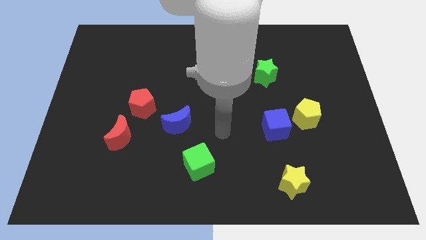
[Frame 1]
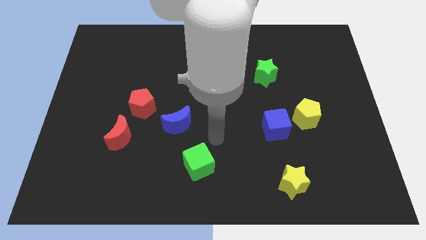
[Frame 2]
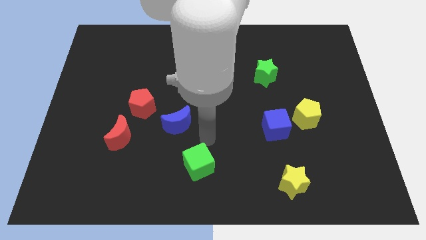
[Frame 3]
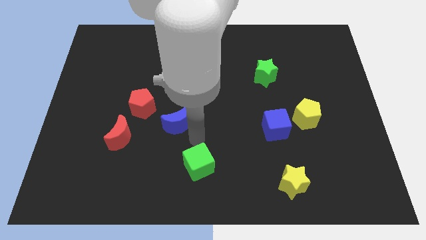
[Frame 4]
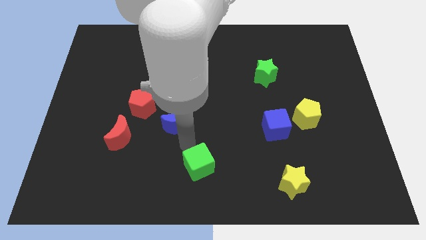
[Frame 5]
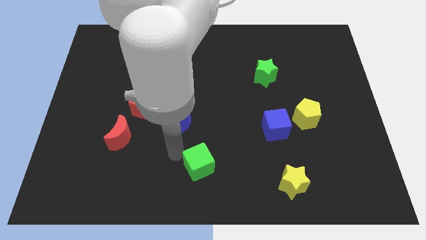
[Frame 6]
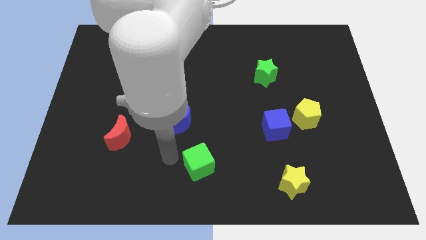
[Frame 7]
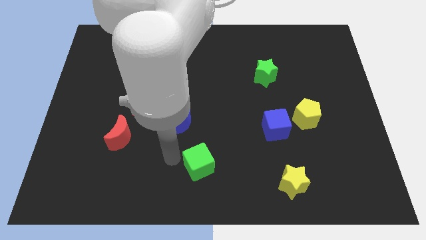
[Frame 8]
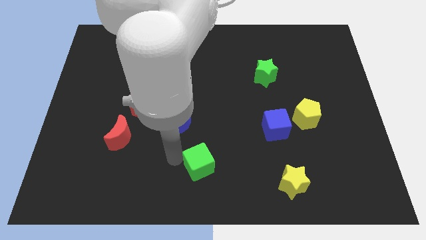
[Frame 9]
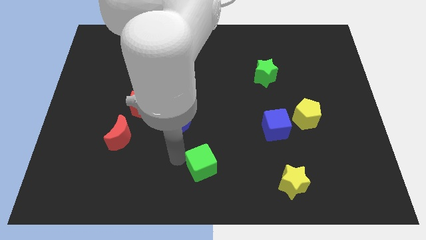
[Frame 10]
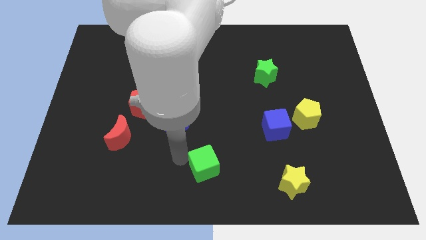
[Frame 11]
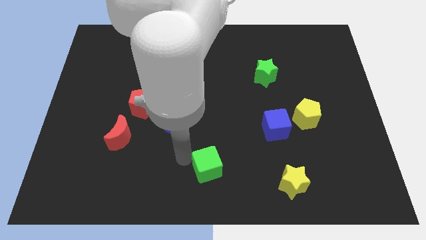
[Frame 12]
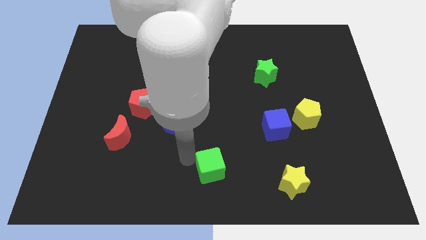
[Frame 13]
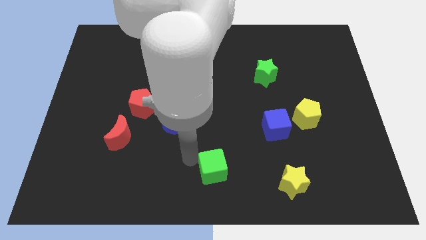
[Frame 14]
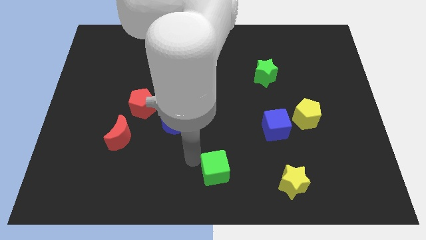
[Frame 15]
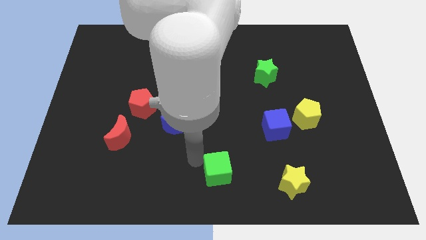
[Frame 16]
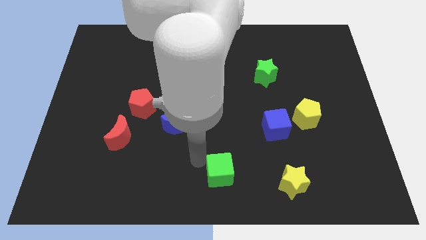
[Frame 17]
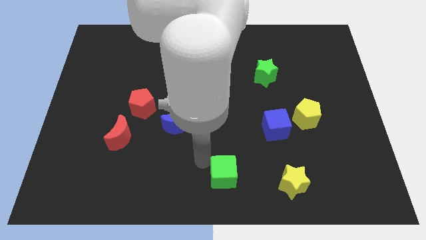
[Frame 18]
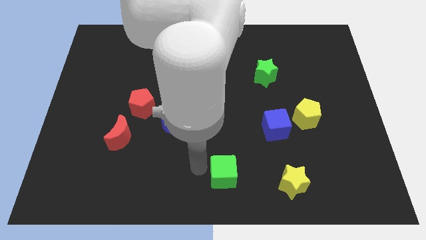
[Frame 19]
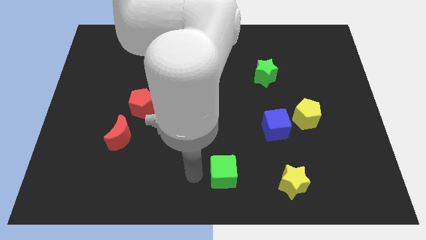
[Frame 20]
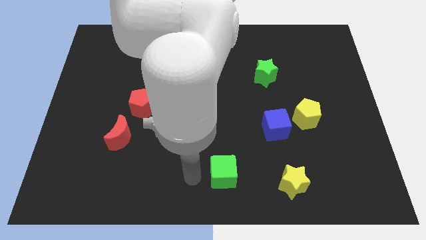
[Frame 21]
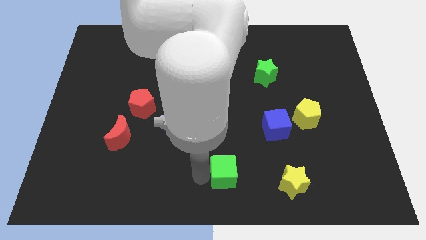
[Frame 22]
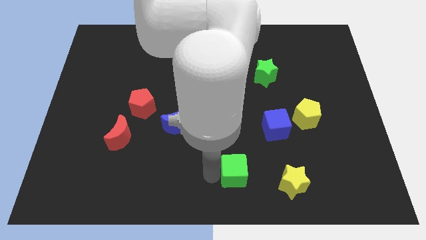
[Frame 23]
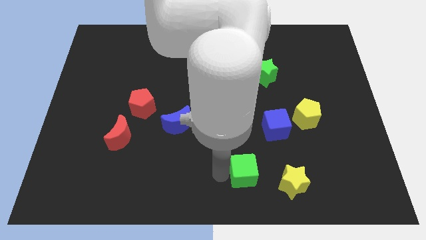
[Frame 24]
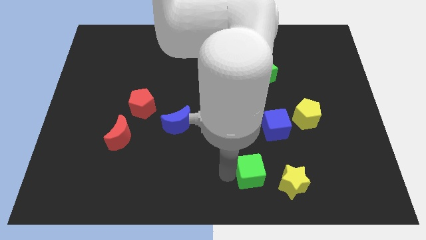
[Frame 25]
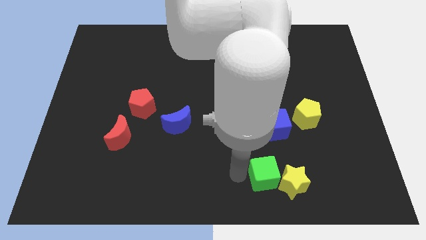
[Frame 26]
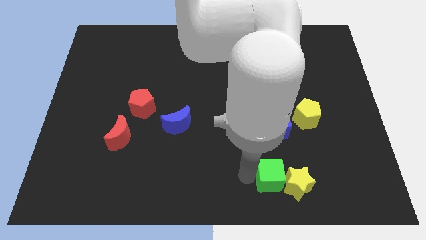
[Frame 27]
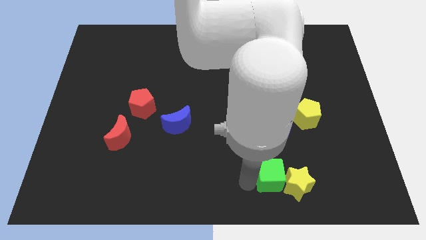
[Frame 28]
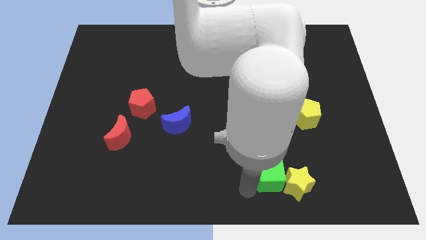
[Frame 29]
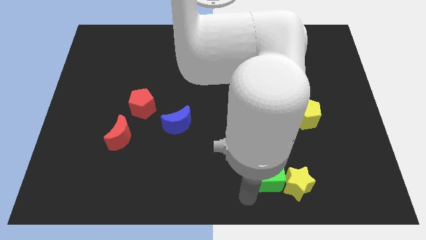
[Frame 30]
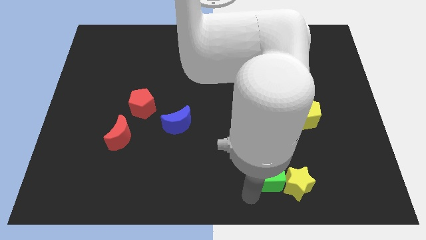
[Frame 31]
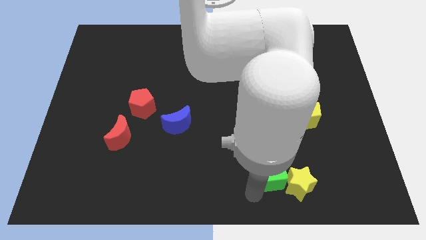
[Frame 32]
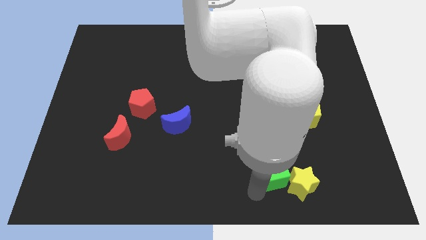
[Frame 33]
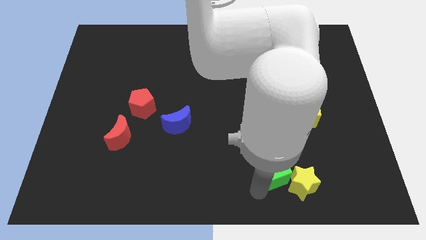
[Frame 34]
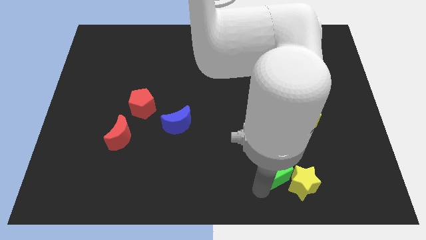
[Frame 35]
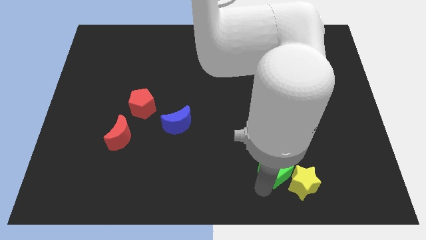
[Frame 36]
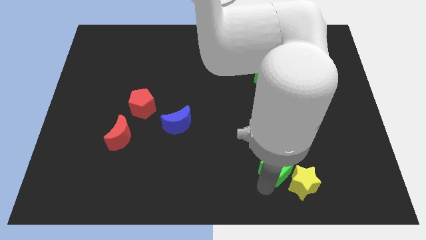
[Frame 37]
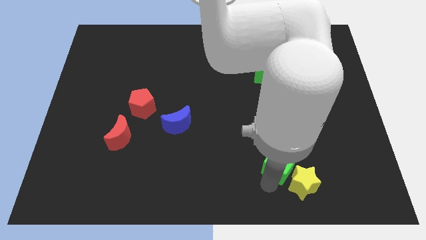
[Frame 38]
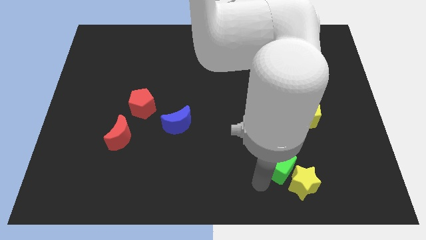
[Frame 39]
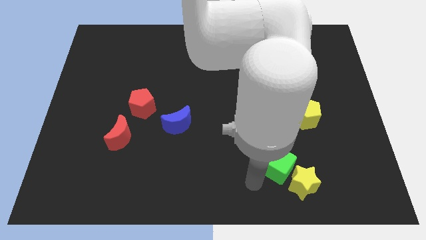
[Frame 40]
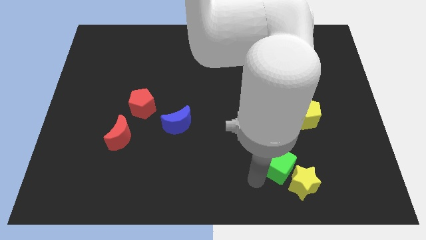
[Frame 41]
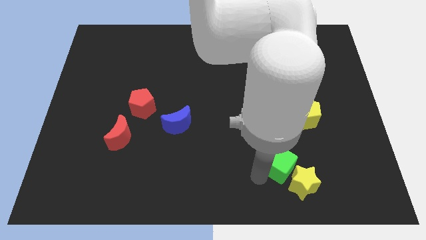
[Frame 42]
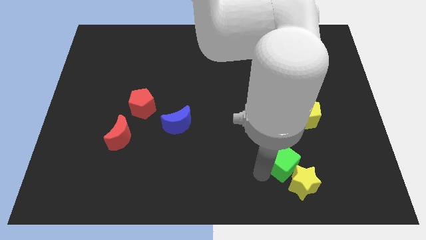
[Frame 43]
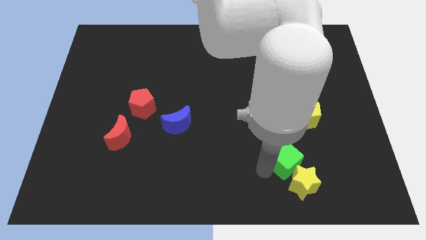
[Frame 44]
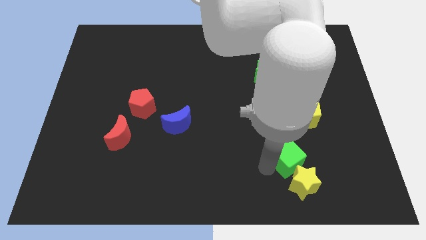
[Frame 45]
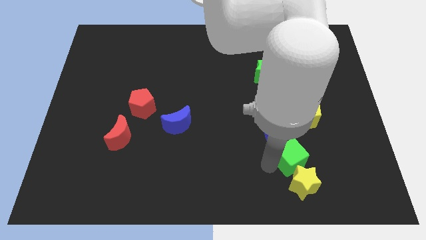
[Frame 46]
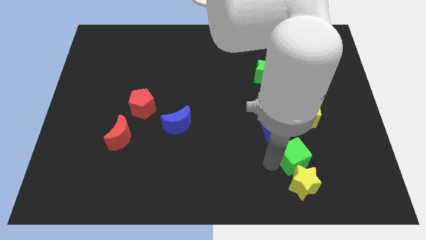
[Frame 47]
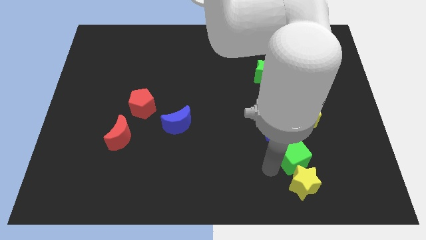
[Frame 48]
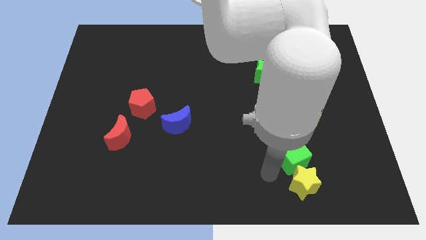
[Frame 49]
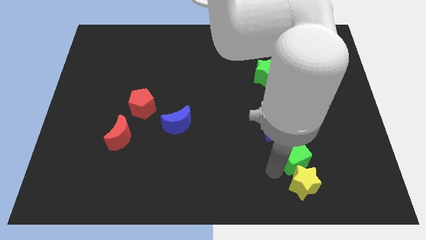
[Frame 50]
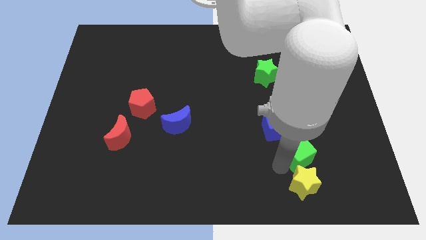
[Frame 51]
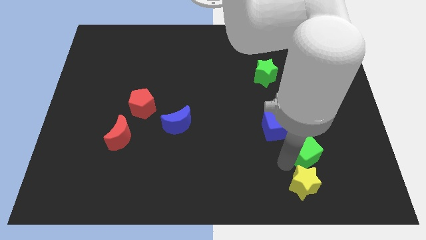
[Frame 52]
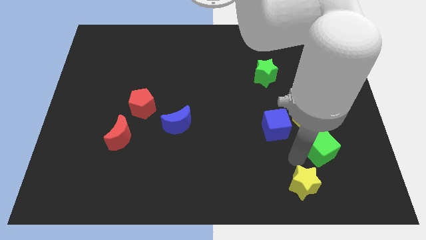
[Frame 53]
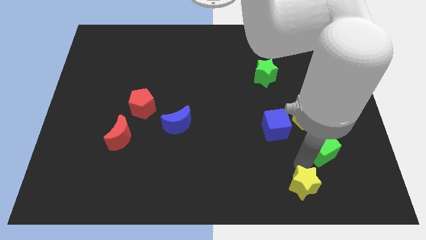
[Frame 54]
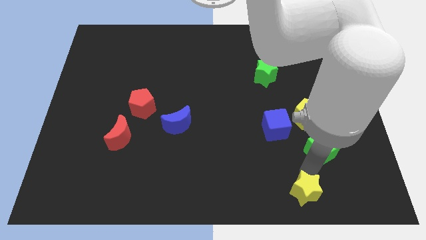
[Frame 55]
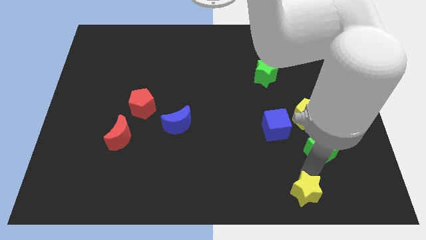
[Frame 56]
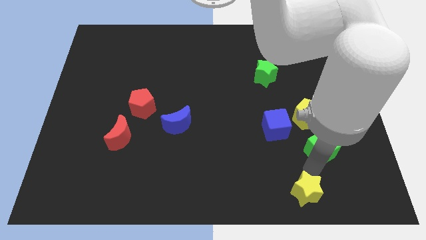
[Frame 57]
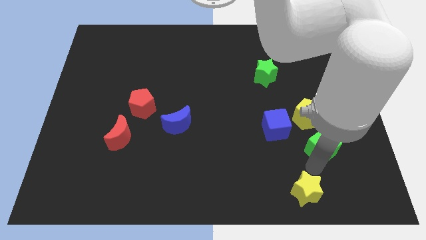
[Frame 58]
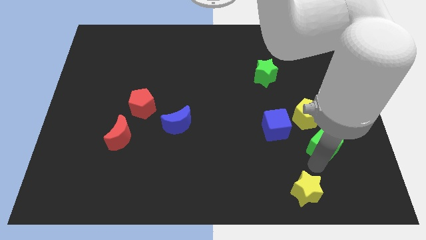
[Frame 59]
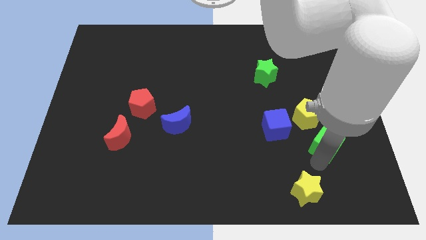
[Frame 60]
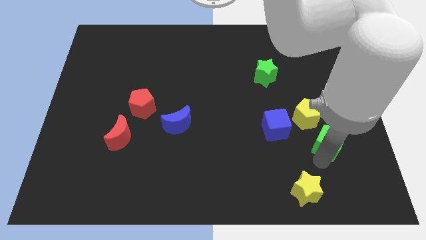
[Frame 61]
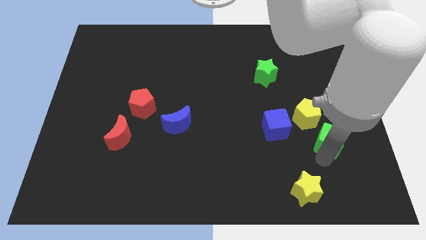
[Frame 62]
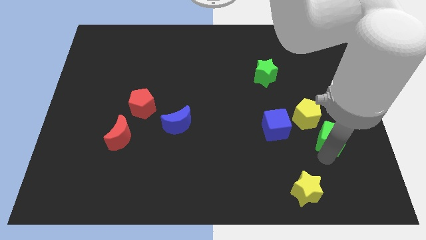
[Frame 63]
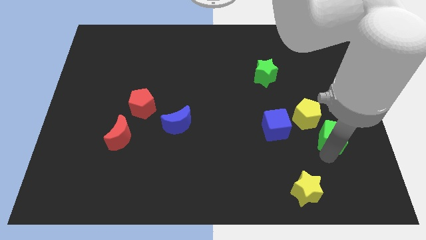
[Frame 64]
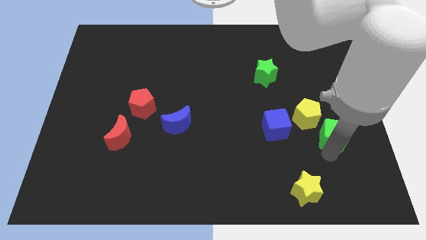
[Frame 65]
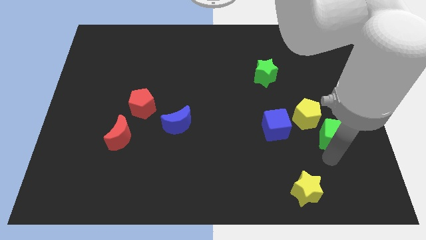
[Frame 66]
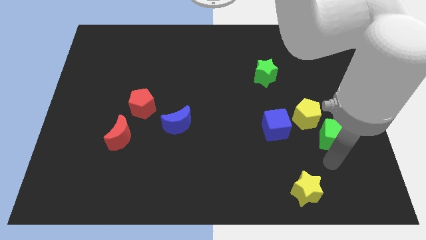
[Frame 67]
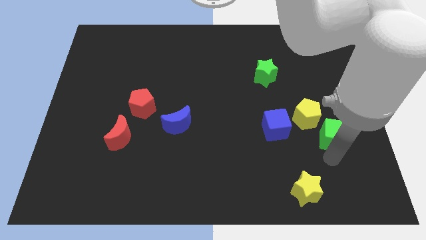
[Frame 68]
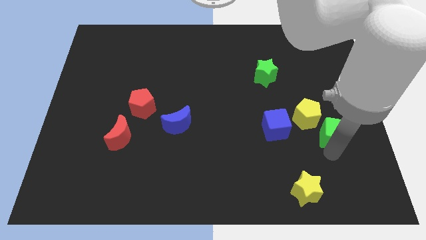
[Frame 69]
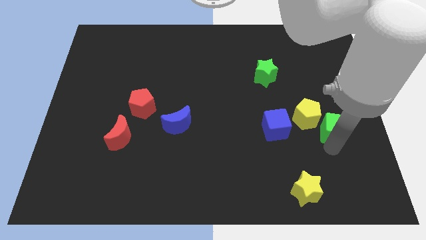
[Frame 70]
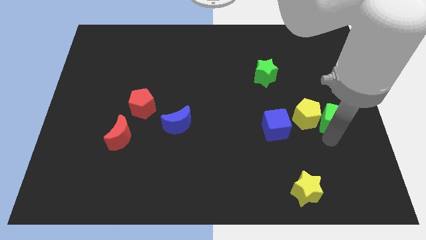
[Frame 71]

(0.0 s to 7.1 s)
put the green cube to the right side of the board
